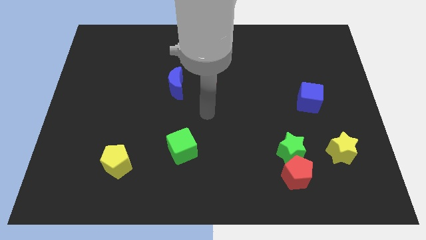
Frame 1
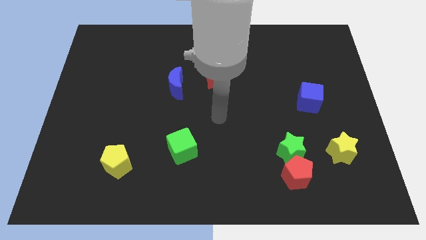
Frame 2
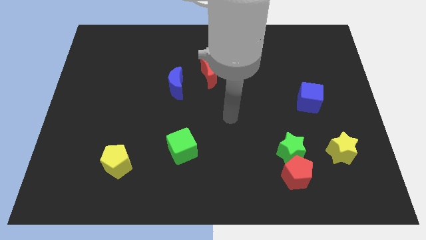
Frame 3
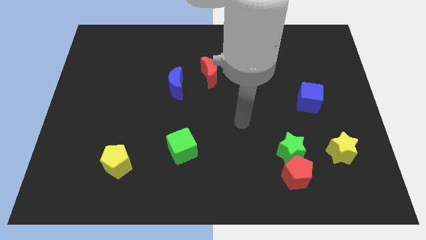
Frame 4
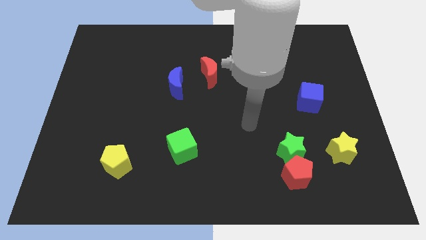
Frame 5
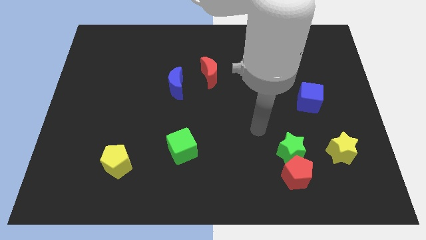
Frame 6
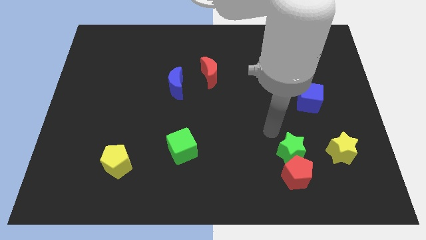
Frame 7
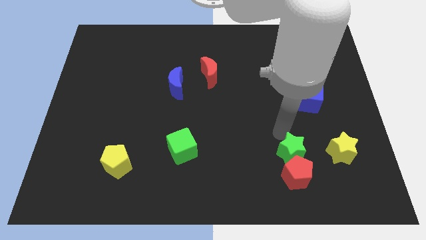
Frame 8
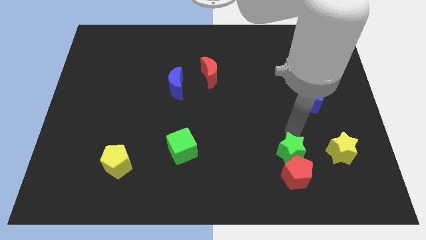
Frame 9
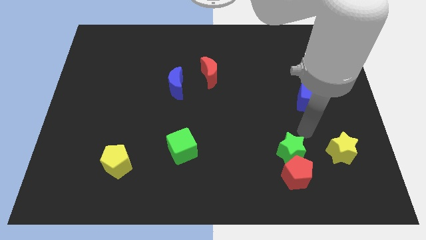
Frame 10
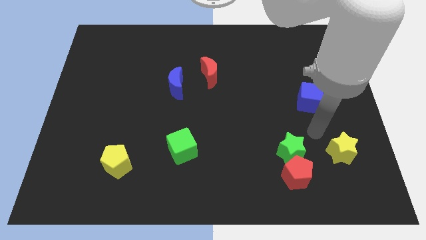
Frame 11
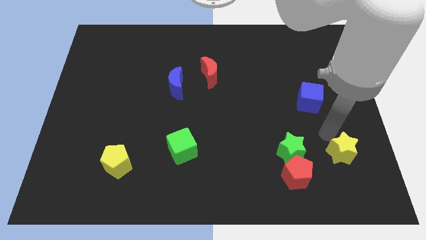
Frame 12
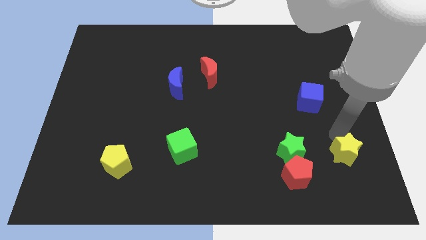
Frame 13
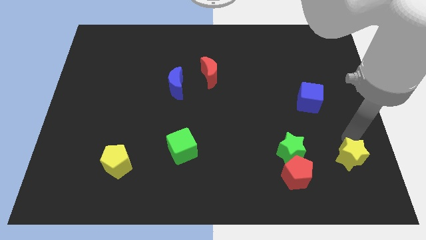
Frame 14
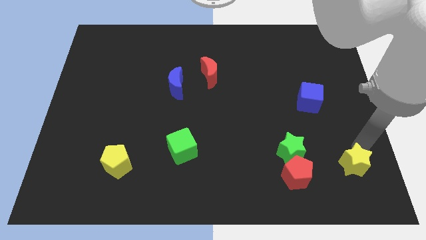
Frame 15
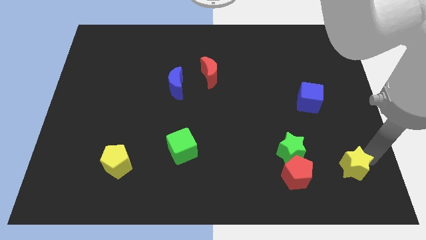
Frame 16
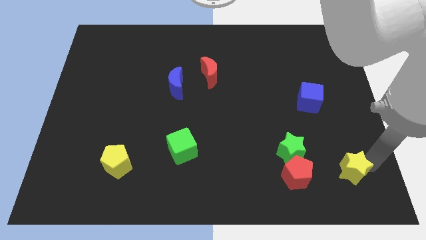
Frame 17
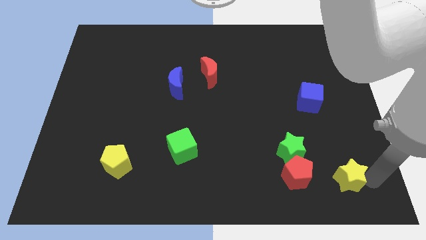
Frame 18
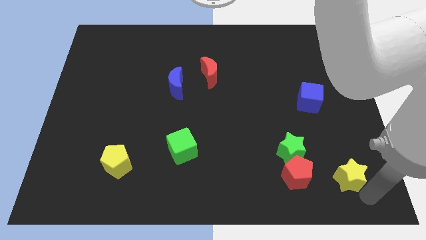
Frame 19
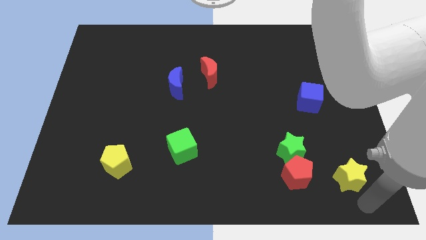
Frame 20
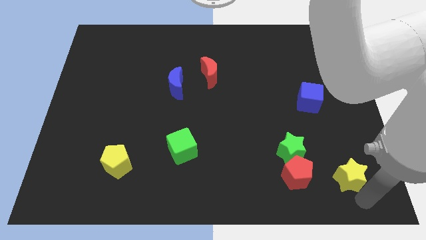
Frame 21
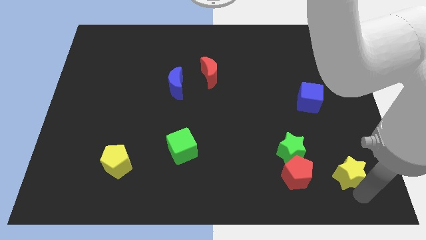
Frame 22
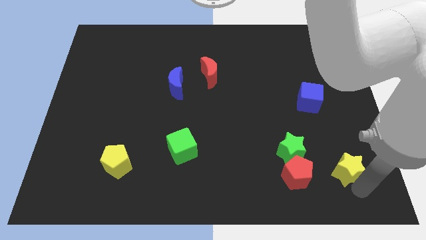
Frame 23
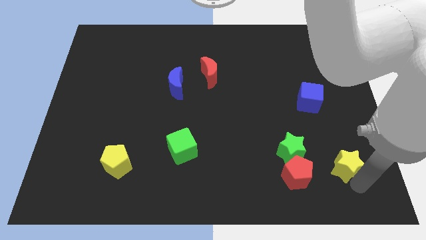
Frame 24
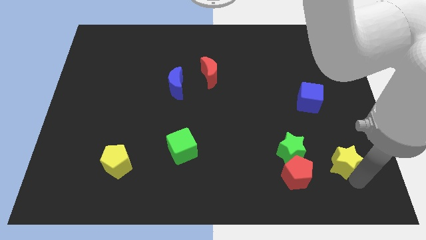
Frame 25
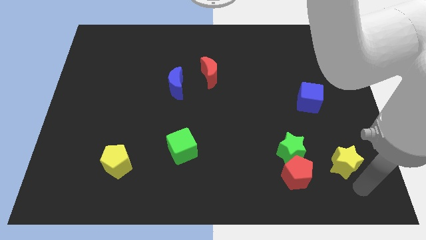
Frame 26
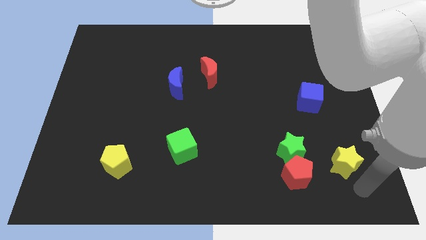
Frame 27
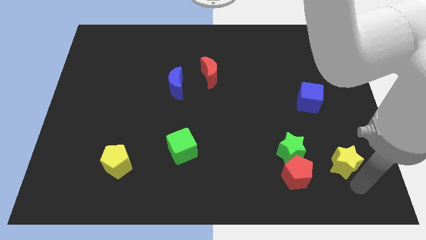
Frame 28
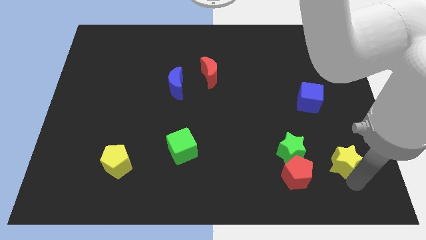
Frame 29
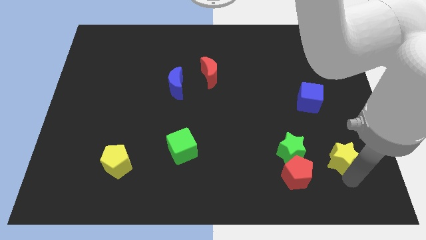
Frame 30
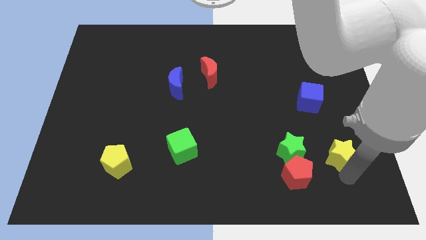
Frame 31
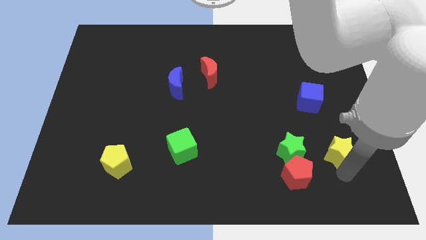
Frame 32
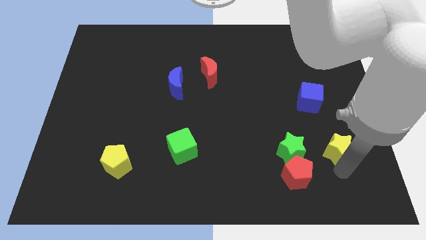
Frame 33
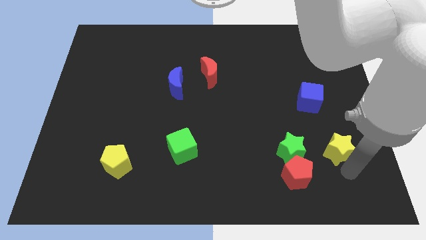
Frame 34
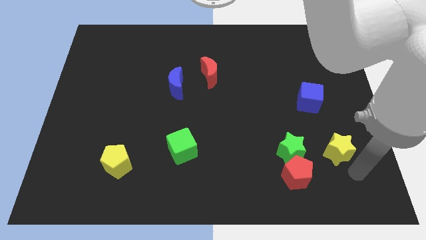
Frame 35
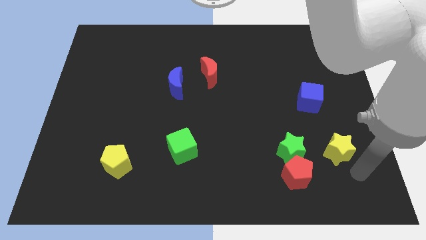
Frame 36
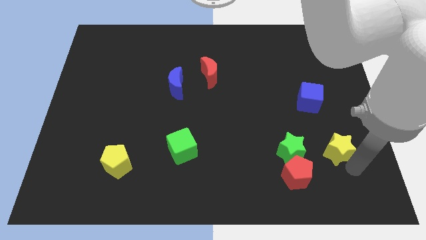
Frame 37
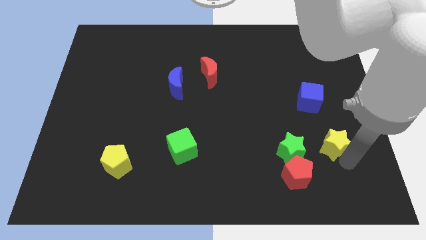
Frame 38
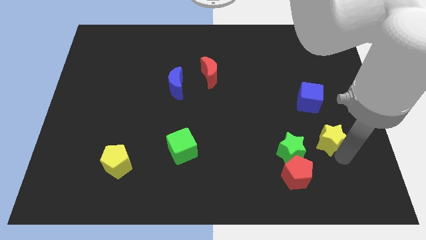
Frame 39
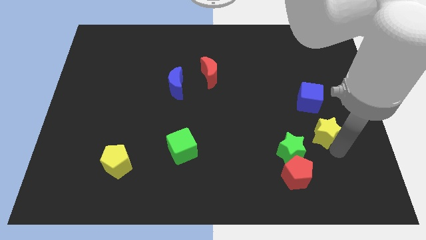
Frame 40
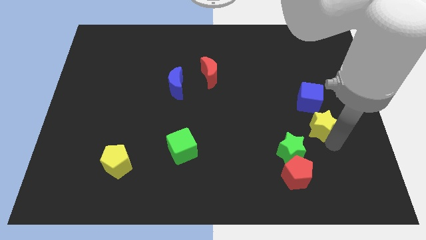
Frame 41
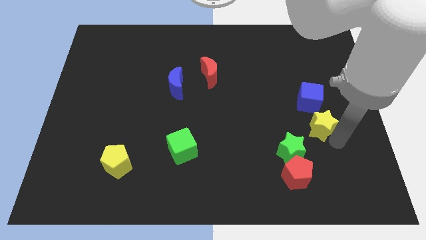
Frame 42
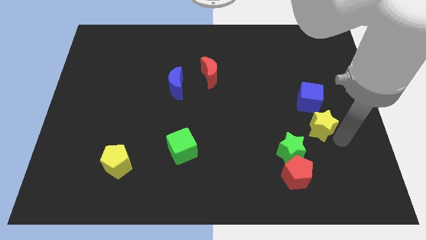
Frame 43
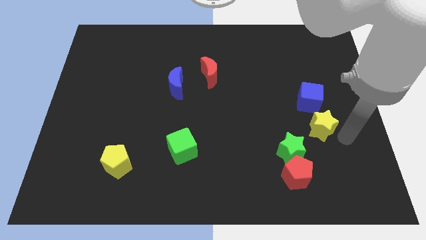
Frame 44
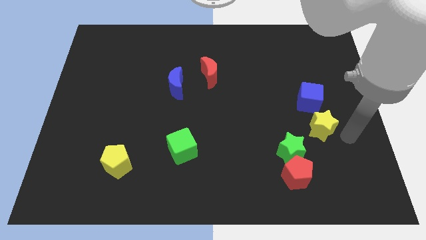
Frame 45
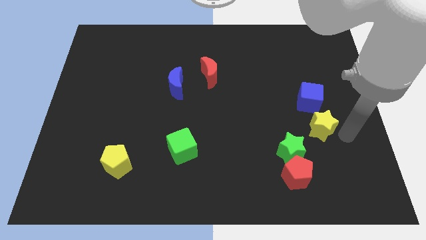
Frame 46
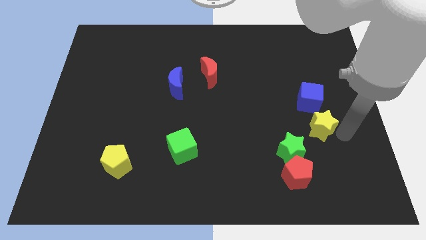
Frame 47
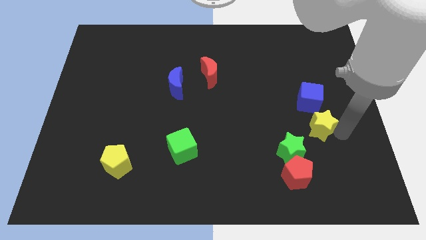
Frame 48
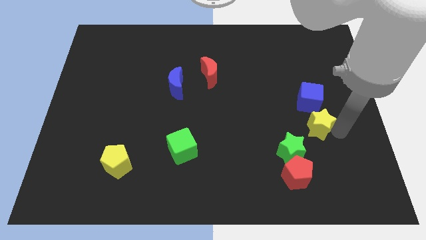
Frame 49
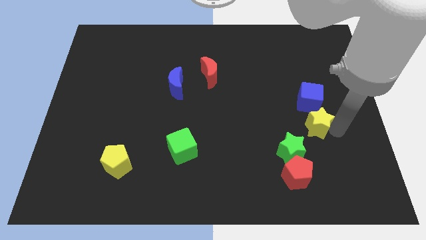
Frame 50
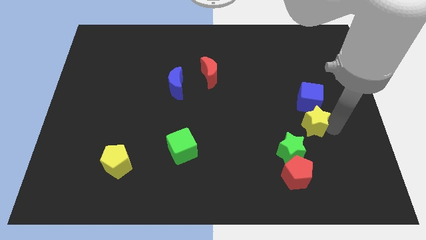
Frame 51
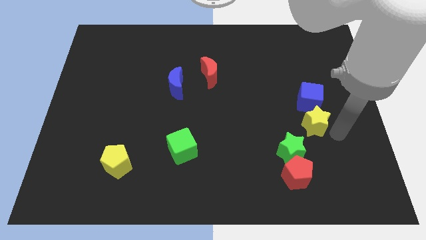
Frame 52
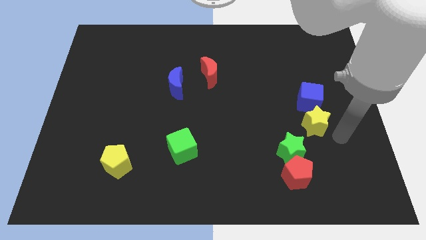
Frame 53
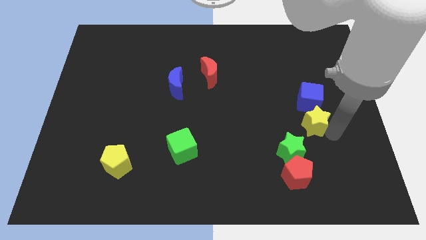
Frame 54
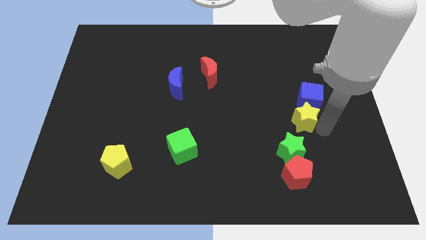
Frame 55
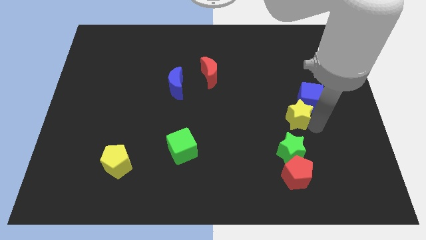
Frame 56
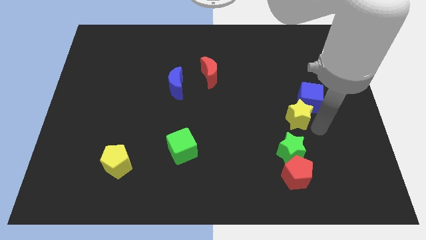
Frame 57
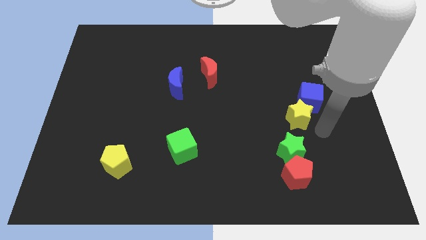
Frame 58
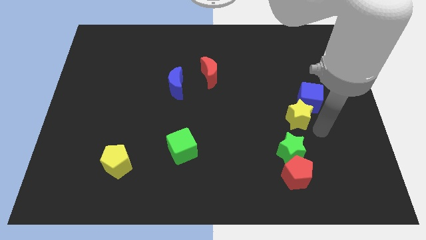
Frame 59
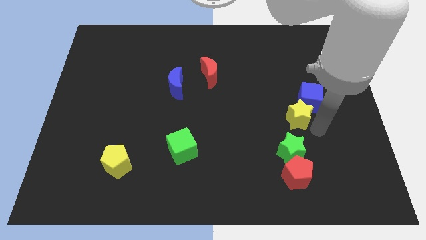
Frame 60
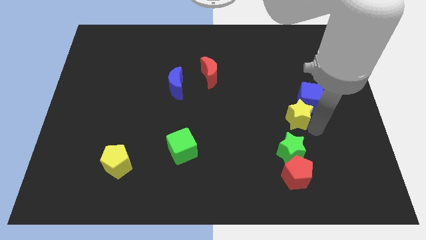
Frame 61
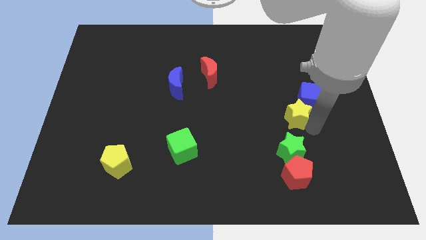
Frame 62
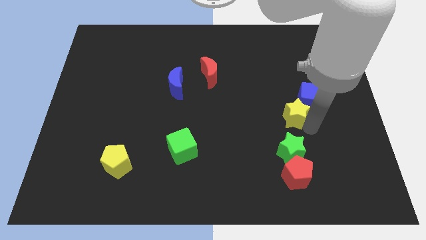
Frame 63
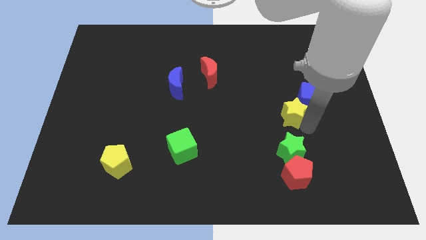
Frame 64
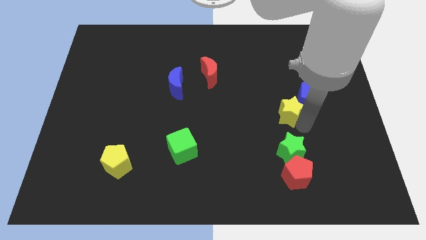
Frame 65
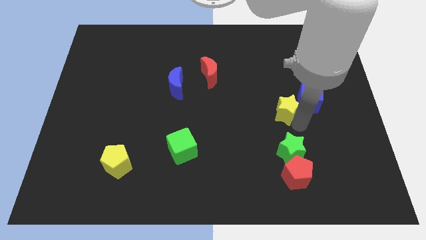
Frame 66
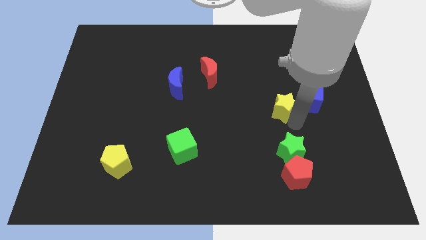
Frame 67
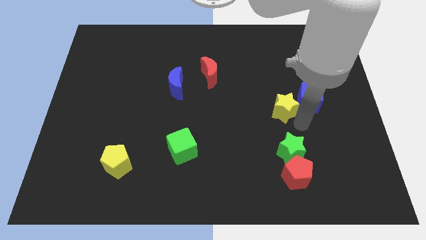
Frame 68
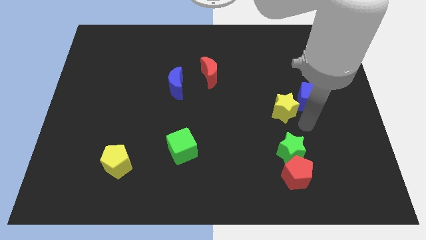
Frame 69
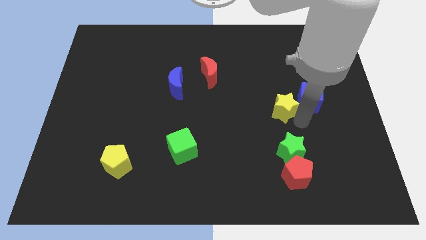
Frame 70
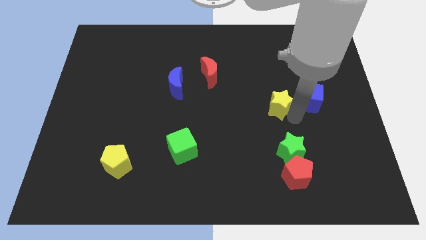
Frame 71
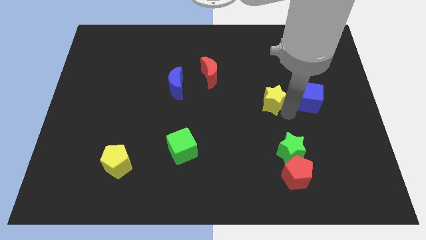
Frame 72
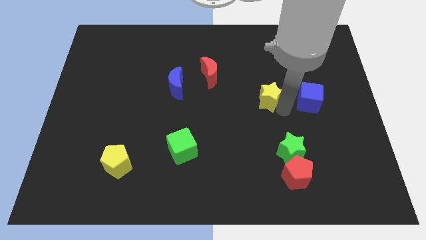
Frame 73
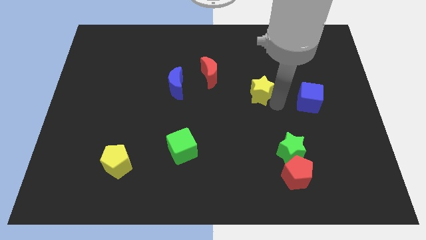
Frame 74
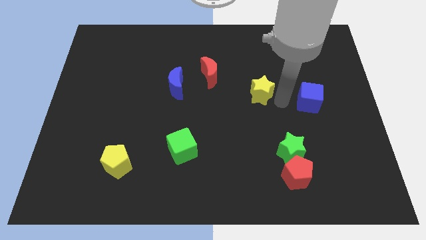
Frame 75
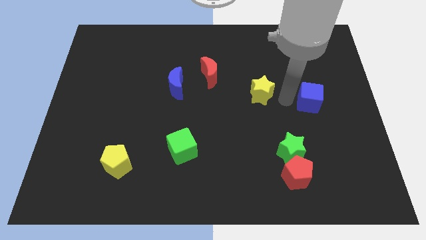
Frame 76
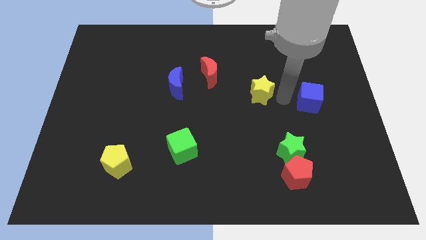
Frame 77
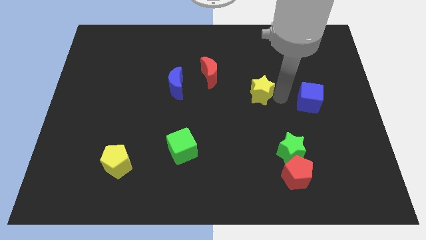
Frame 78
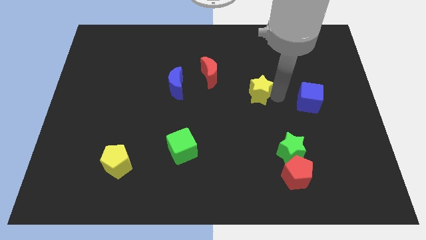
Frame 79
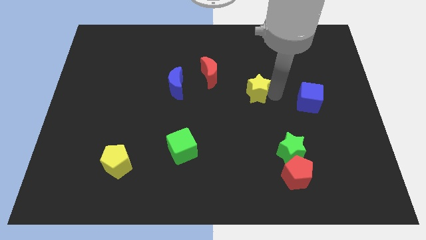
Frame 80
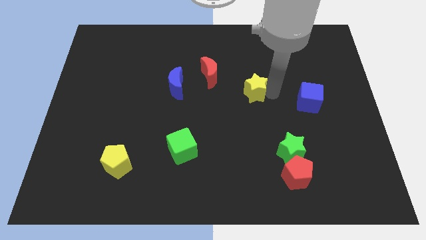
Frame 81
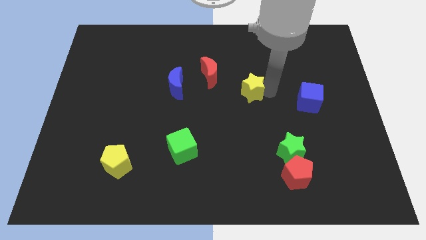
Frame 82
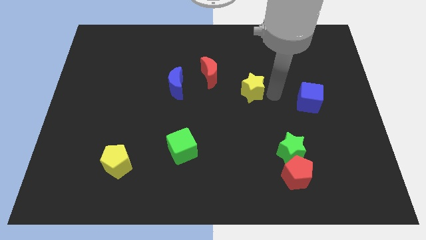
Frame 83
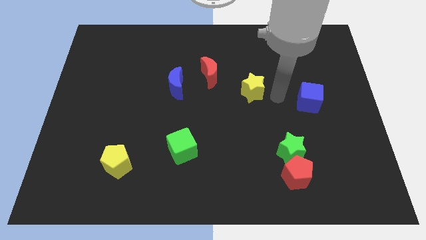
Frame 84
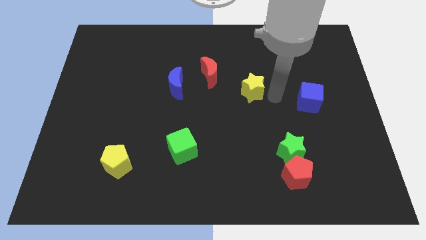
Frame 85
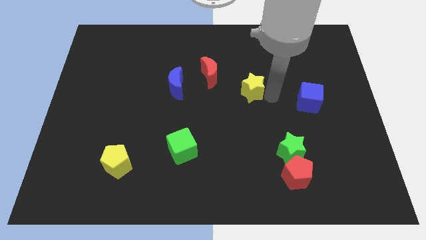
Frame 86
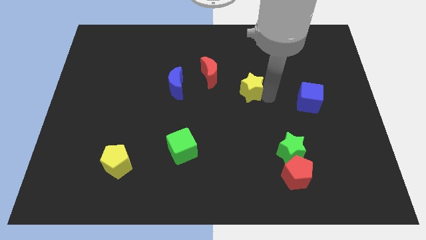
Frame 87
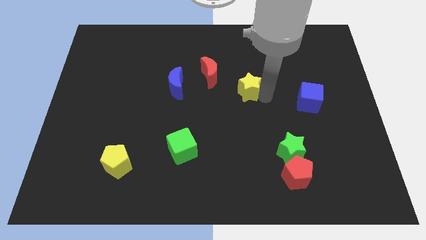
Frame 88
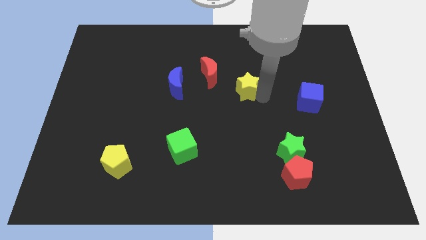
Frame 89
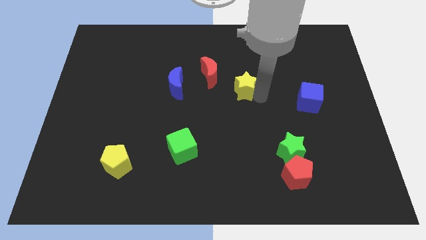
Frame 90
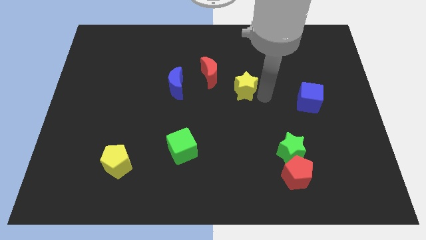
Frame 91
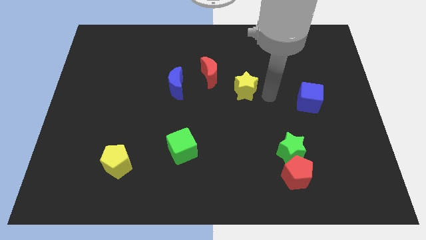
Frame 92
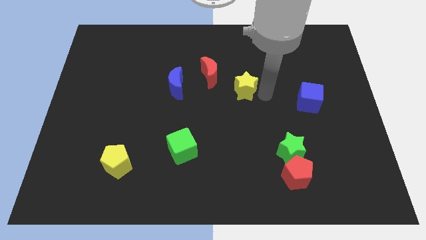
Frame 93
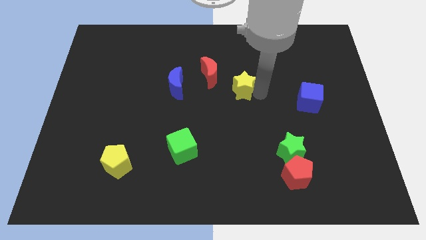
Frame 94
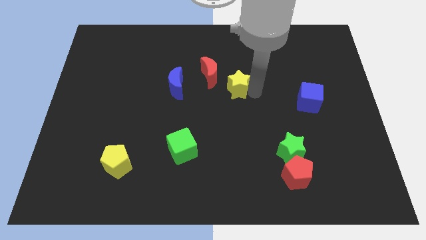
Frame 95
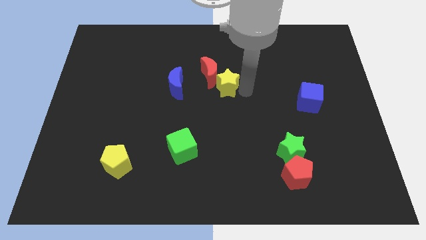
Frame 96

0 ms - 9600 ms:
push the yellow star towards the red moon
